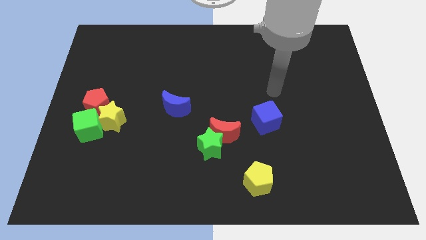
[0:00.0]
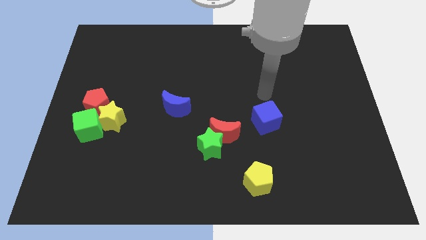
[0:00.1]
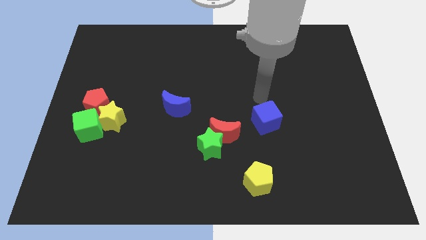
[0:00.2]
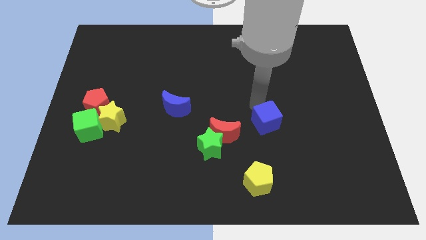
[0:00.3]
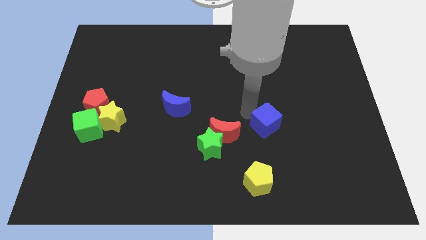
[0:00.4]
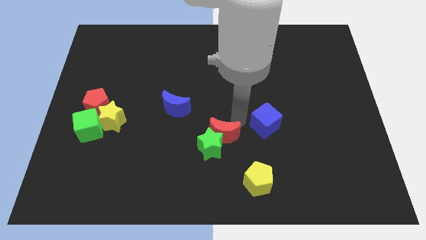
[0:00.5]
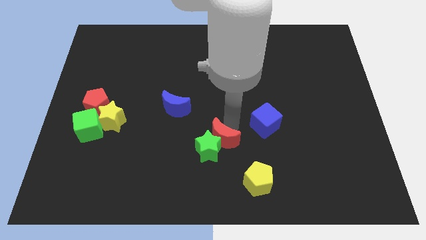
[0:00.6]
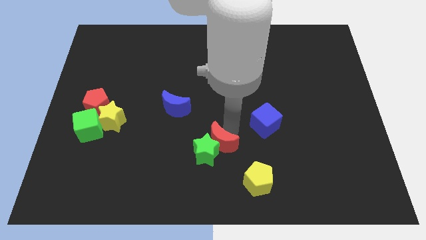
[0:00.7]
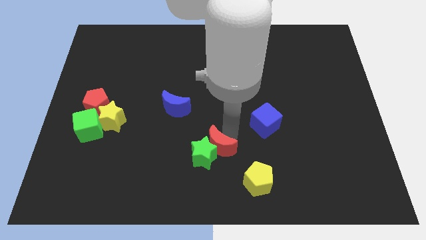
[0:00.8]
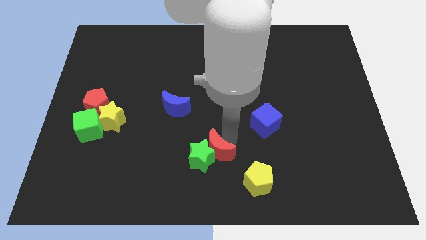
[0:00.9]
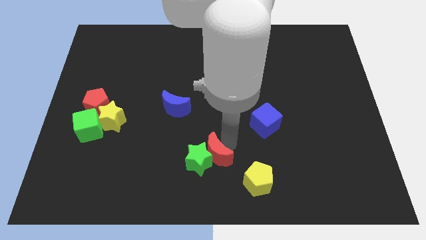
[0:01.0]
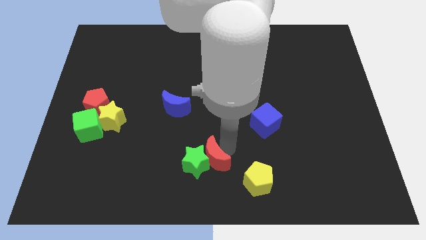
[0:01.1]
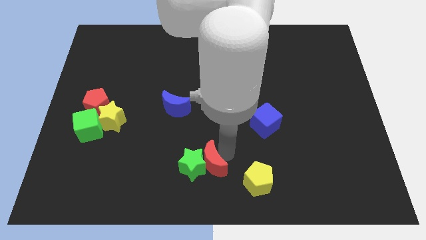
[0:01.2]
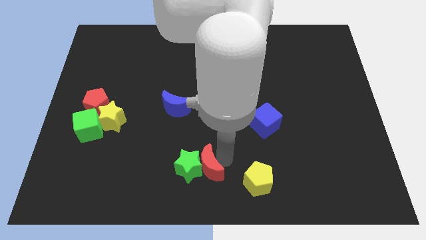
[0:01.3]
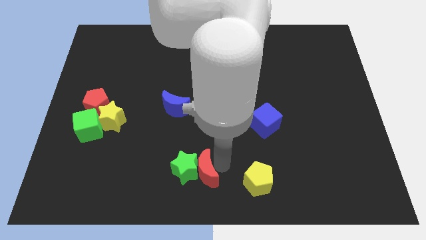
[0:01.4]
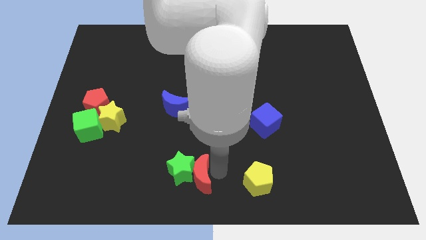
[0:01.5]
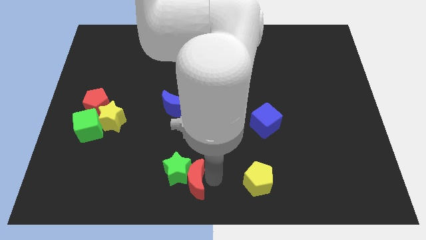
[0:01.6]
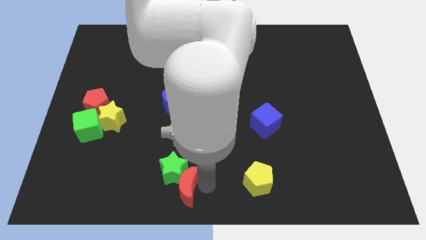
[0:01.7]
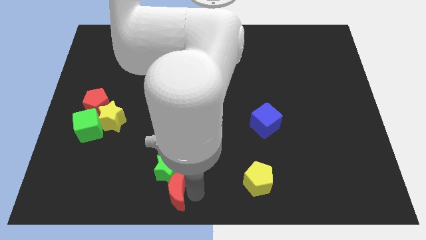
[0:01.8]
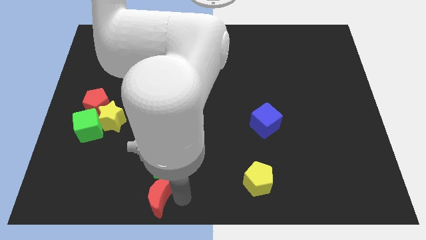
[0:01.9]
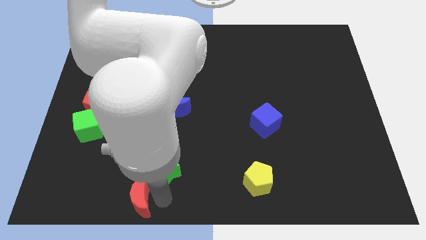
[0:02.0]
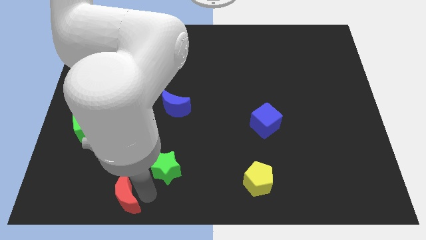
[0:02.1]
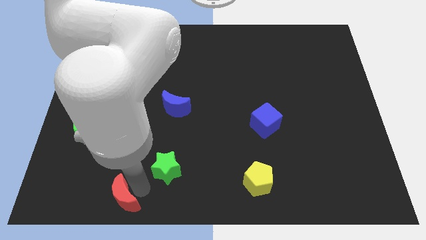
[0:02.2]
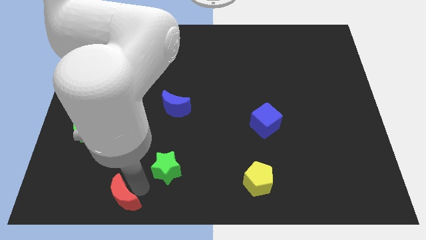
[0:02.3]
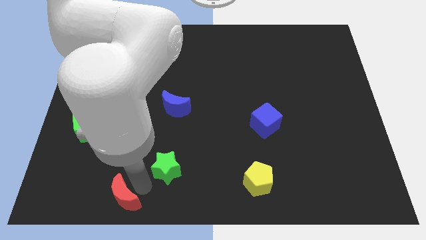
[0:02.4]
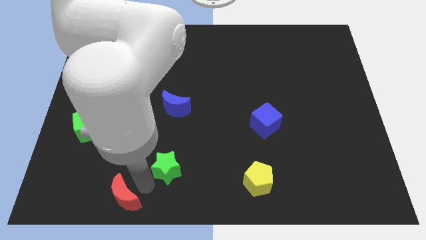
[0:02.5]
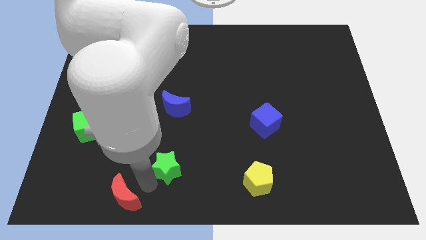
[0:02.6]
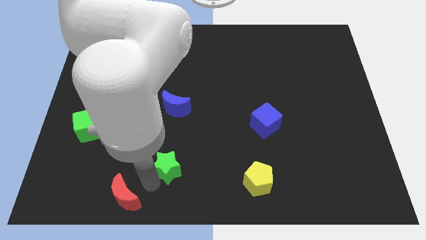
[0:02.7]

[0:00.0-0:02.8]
separate the green star from the red moon

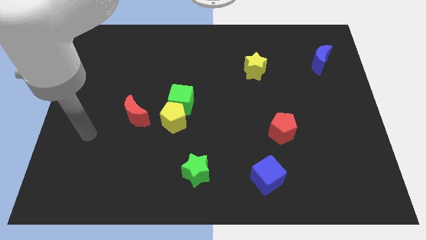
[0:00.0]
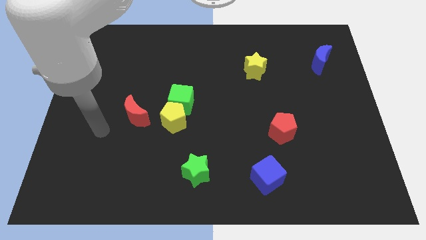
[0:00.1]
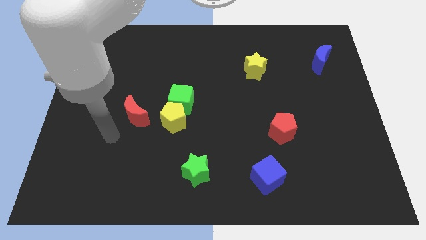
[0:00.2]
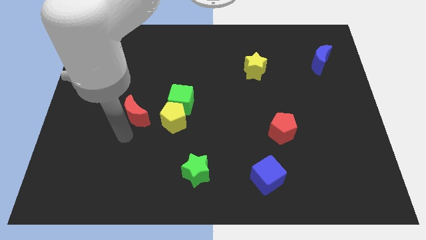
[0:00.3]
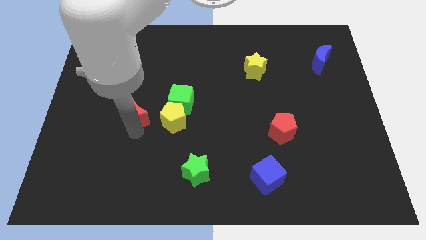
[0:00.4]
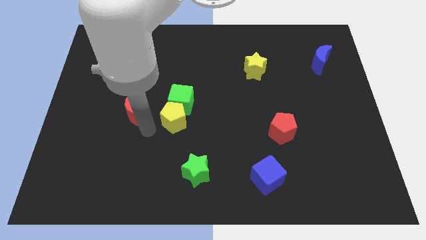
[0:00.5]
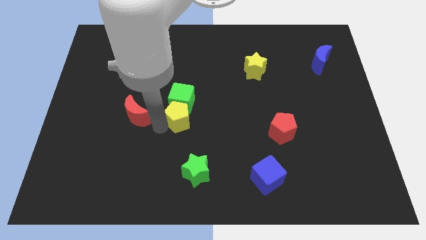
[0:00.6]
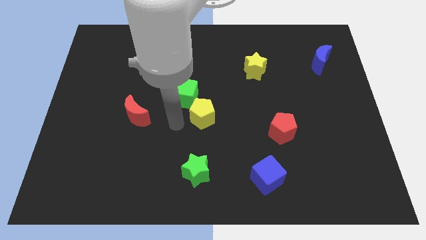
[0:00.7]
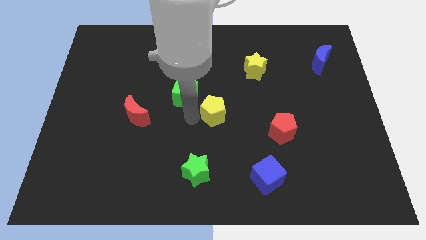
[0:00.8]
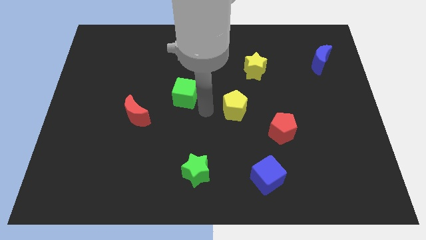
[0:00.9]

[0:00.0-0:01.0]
separate the green cube from the yellow pentagon

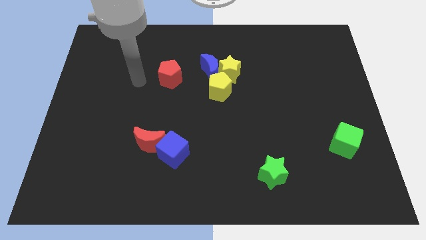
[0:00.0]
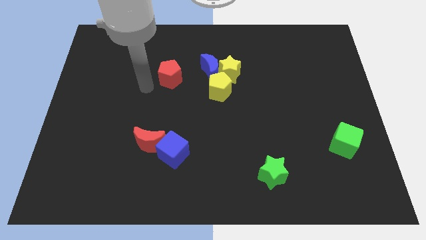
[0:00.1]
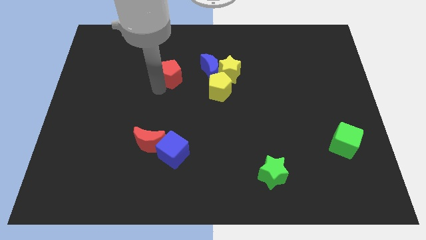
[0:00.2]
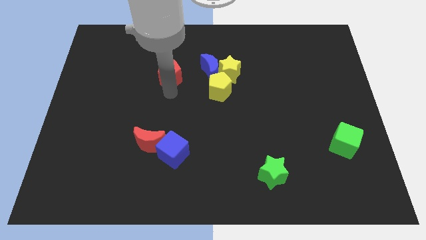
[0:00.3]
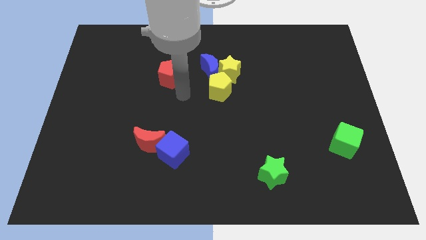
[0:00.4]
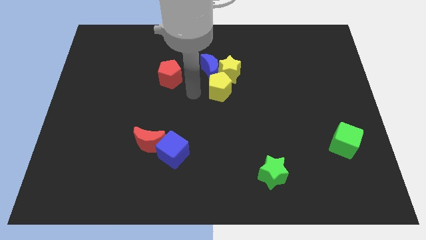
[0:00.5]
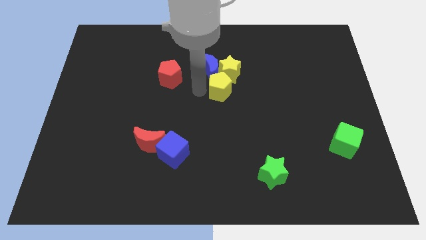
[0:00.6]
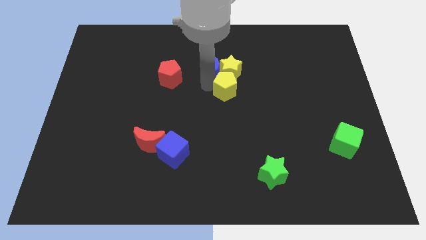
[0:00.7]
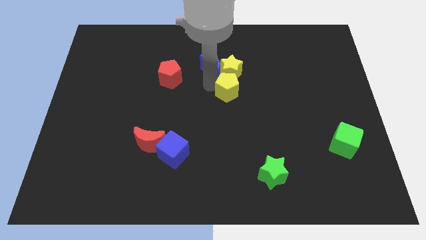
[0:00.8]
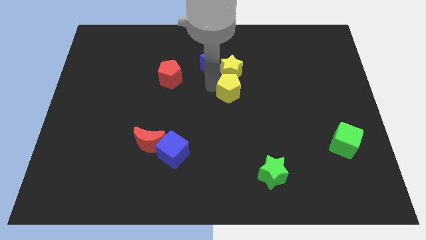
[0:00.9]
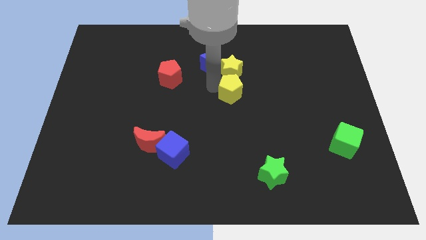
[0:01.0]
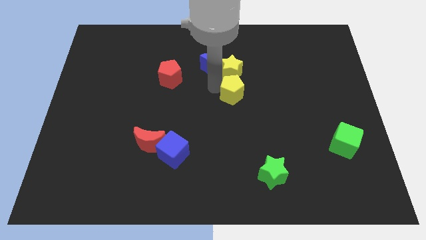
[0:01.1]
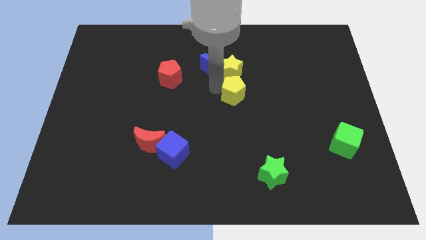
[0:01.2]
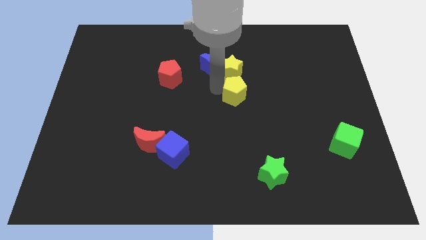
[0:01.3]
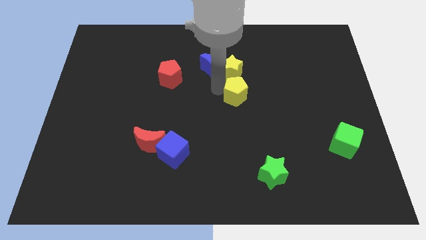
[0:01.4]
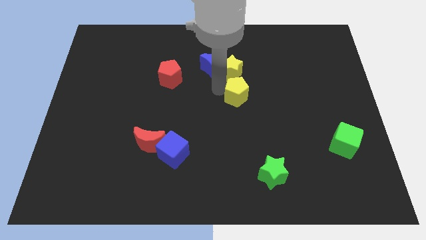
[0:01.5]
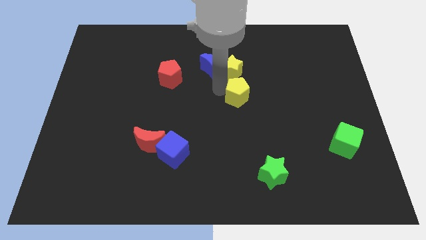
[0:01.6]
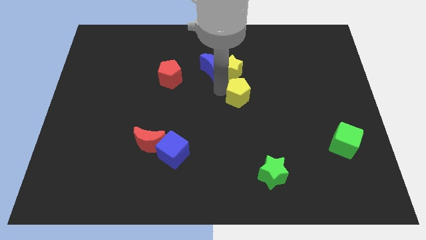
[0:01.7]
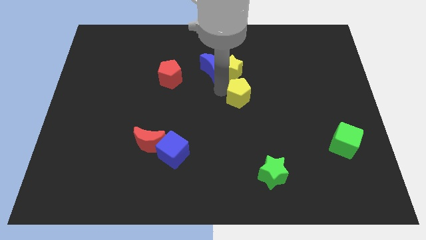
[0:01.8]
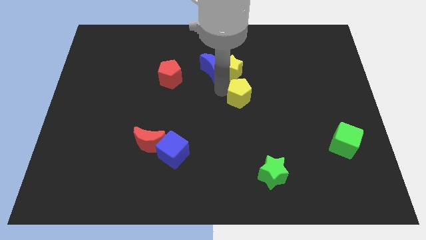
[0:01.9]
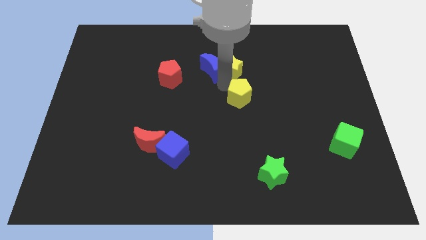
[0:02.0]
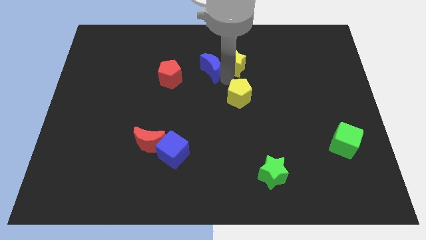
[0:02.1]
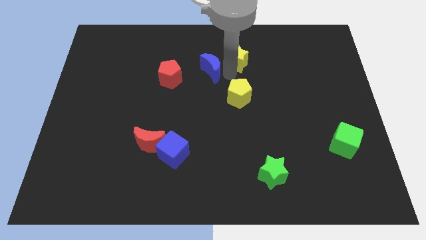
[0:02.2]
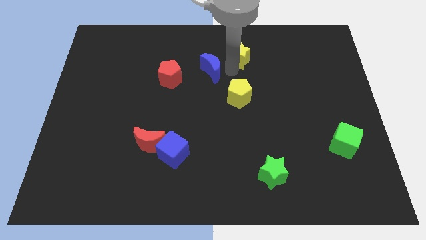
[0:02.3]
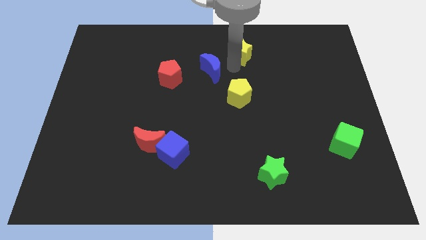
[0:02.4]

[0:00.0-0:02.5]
pull the yellow star apart from the blue moon and yellow pentagon

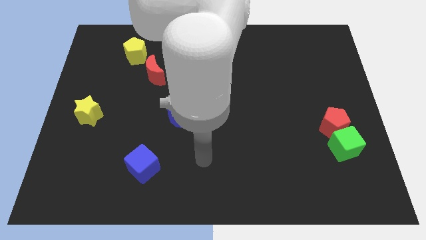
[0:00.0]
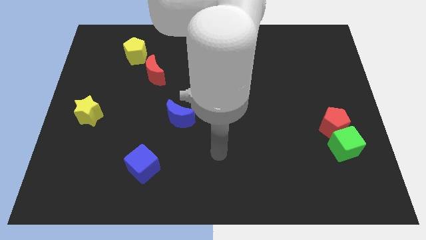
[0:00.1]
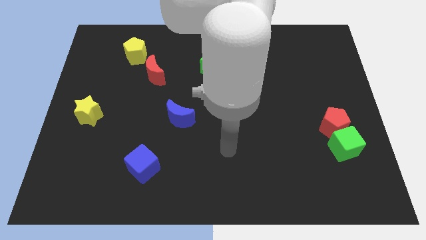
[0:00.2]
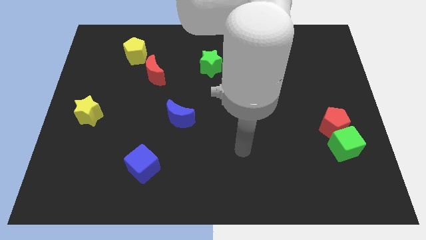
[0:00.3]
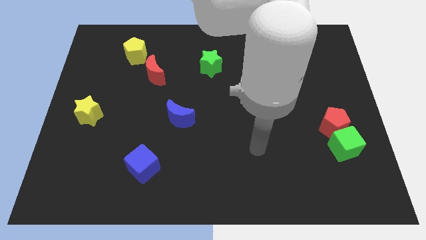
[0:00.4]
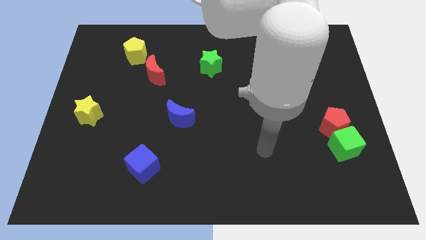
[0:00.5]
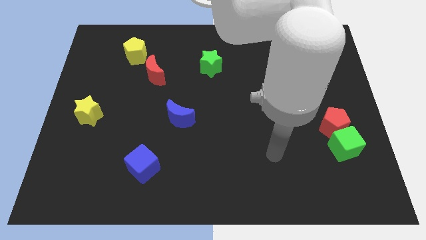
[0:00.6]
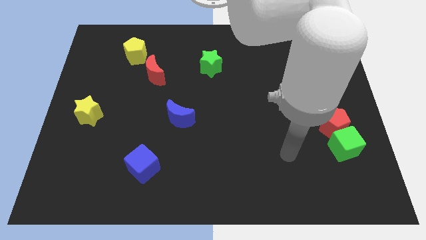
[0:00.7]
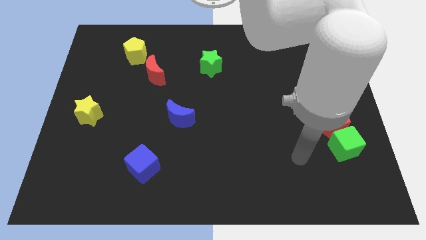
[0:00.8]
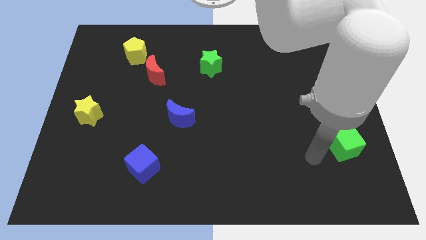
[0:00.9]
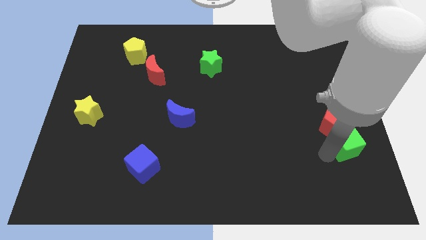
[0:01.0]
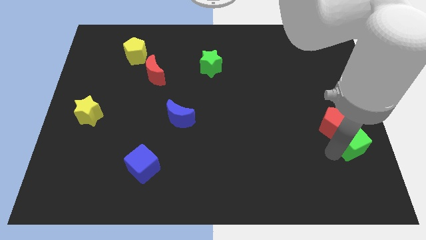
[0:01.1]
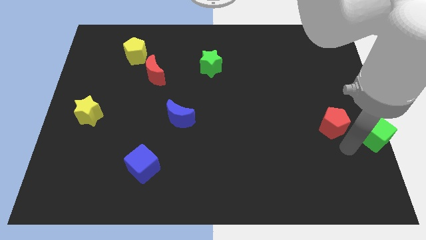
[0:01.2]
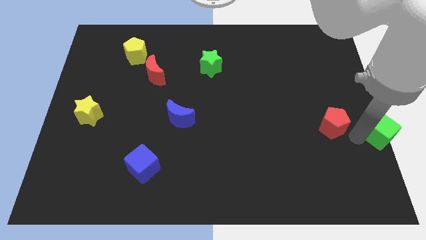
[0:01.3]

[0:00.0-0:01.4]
pull the red pentagon apart from the green cube

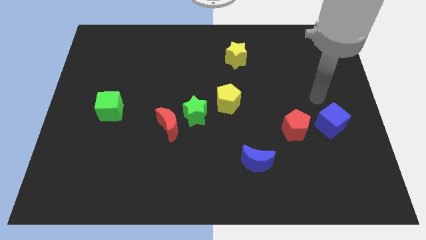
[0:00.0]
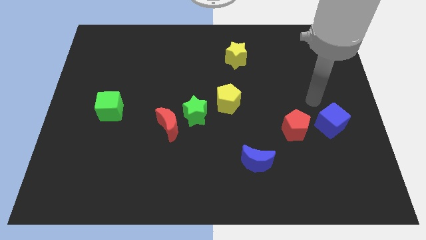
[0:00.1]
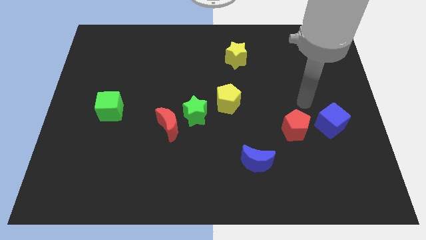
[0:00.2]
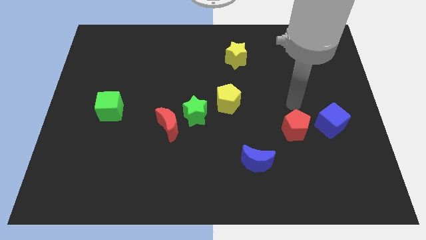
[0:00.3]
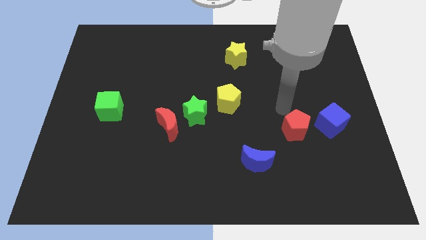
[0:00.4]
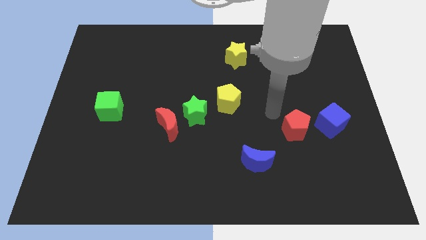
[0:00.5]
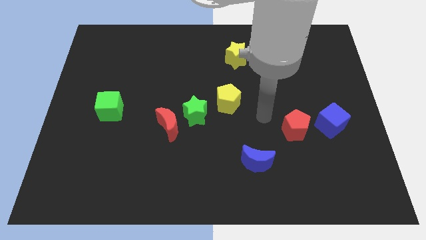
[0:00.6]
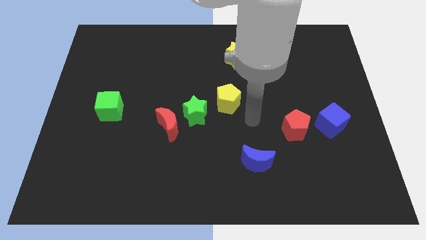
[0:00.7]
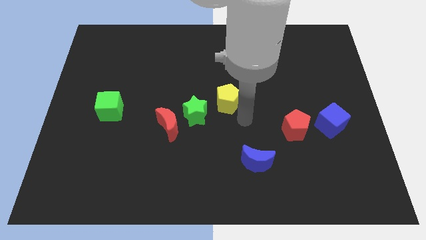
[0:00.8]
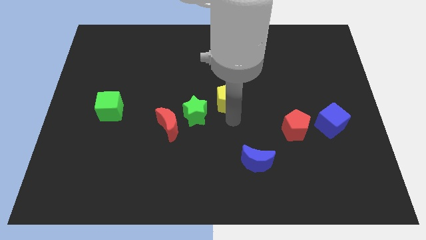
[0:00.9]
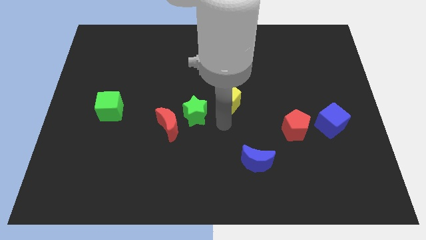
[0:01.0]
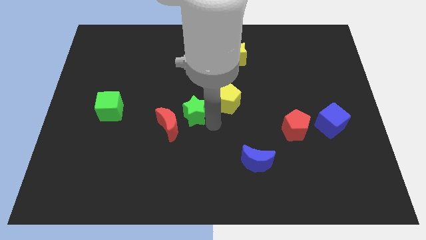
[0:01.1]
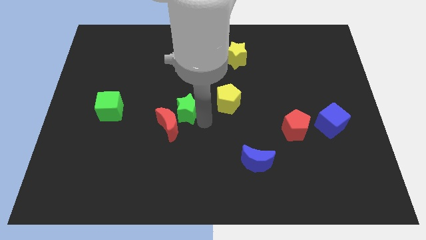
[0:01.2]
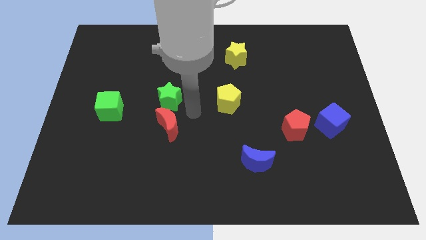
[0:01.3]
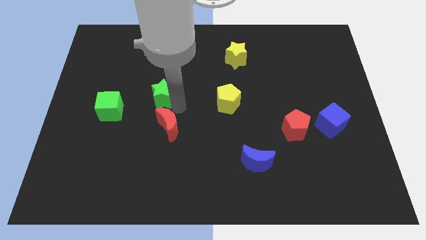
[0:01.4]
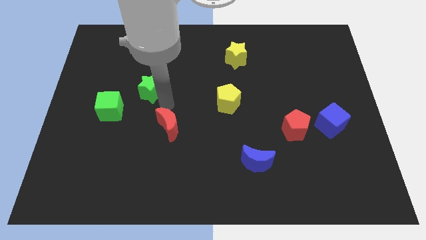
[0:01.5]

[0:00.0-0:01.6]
separate the red moon from the green star
